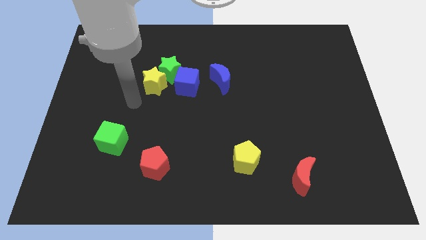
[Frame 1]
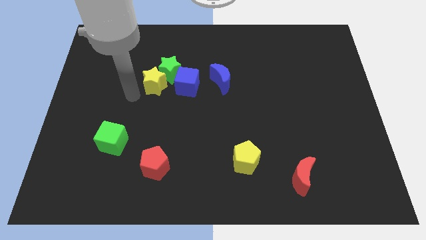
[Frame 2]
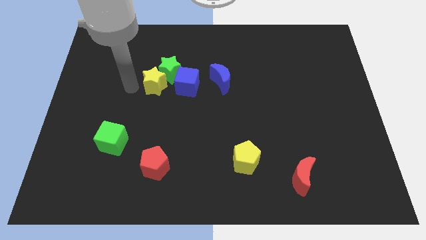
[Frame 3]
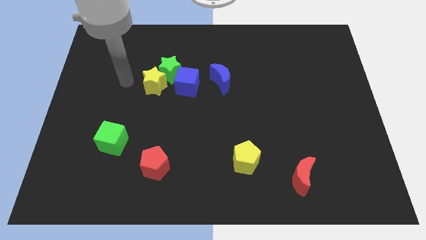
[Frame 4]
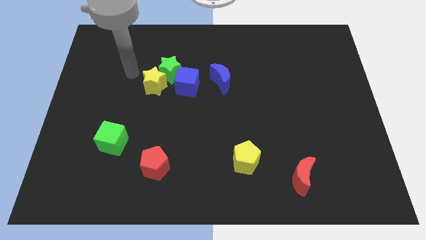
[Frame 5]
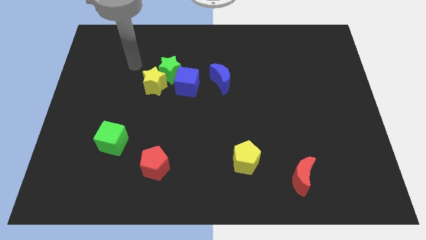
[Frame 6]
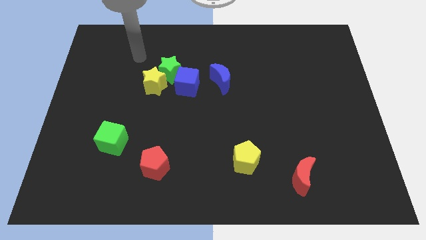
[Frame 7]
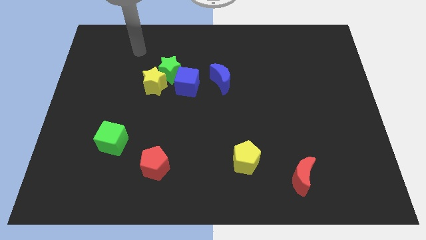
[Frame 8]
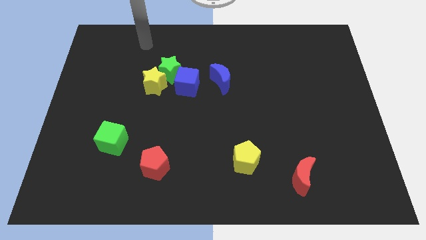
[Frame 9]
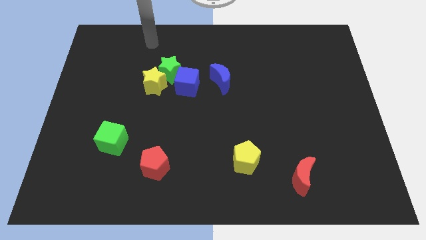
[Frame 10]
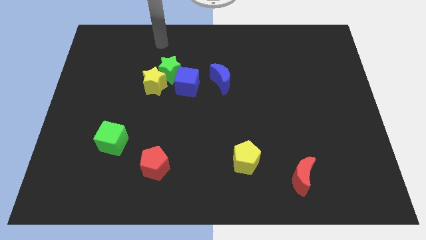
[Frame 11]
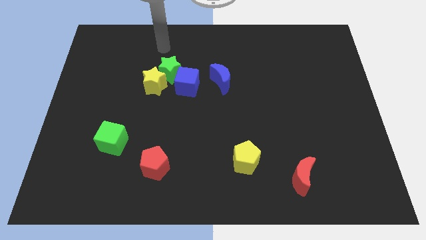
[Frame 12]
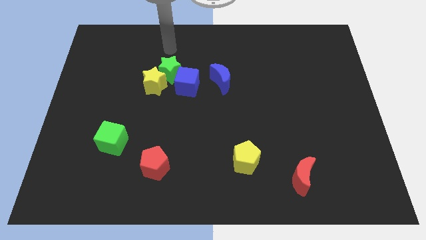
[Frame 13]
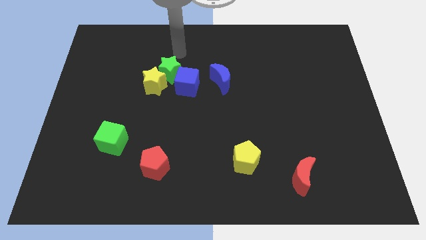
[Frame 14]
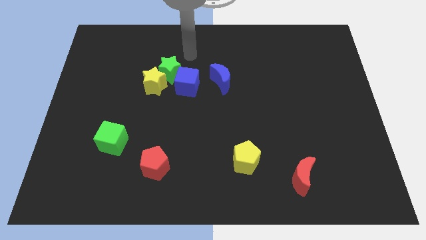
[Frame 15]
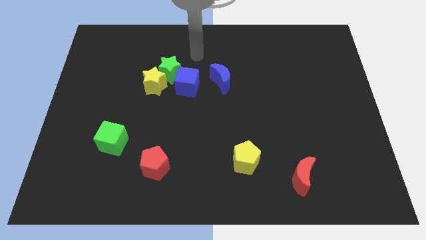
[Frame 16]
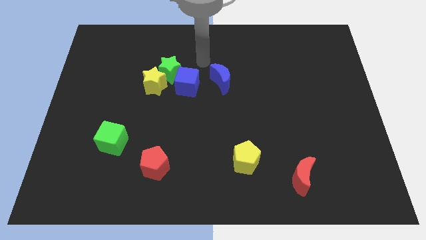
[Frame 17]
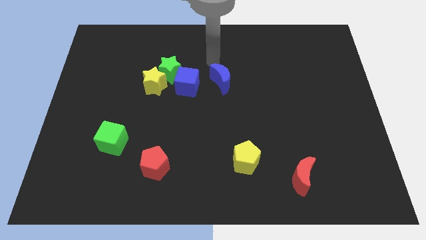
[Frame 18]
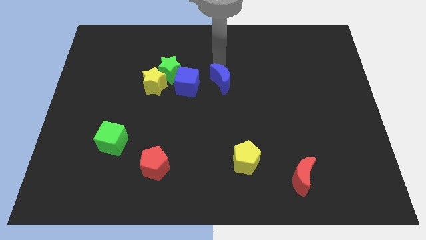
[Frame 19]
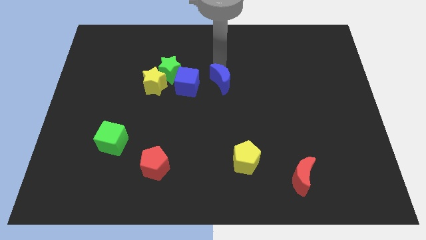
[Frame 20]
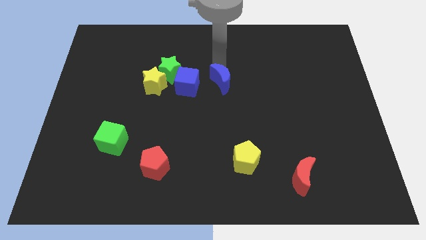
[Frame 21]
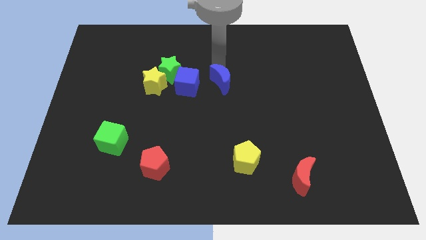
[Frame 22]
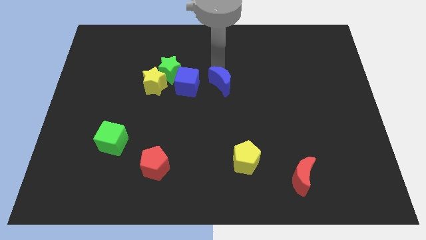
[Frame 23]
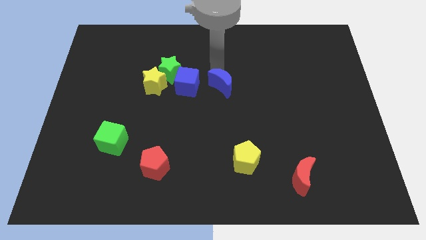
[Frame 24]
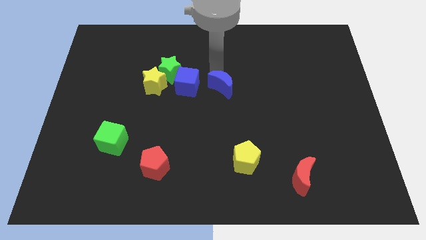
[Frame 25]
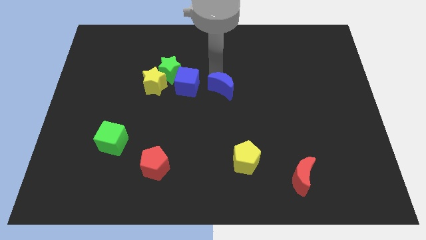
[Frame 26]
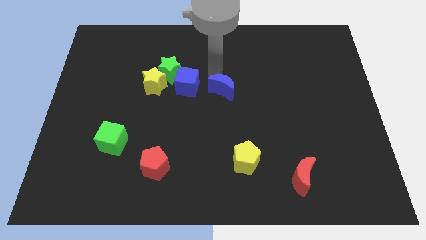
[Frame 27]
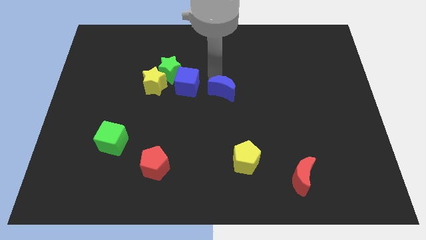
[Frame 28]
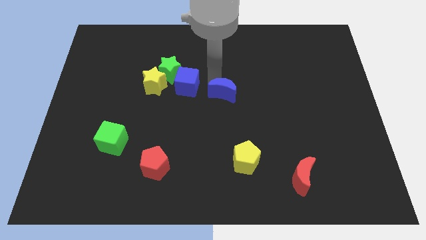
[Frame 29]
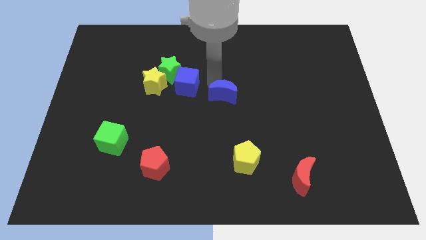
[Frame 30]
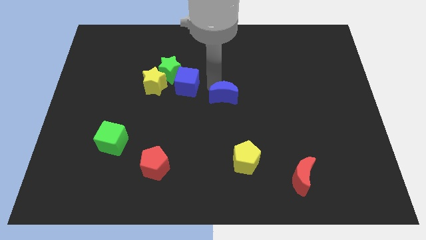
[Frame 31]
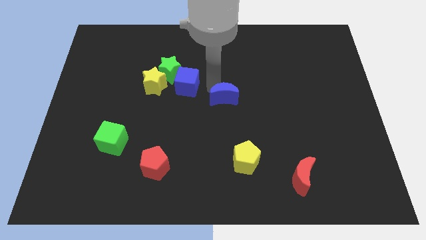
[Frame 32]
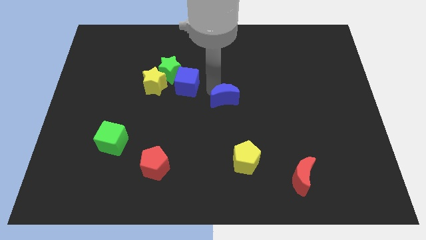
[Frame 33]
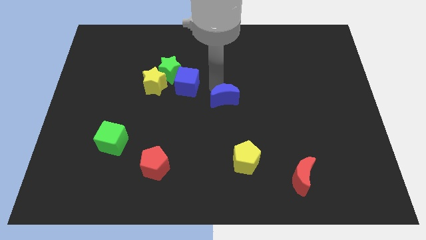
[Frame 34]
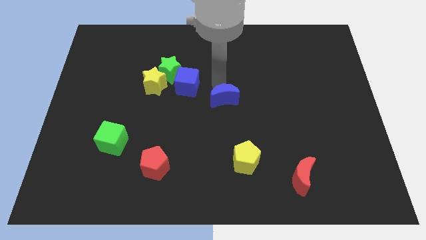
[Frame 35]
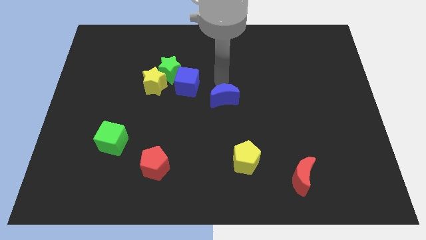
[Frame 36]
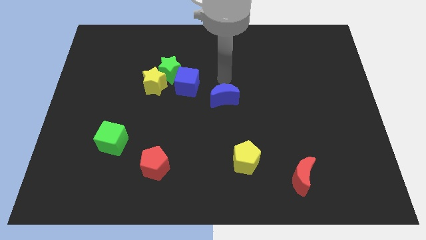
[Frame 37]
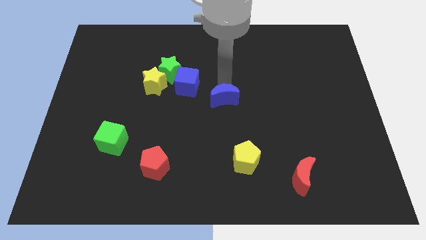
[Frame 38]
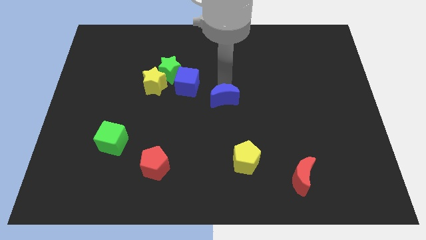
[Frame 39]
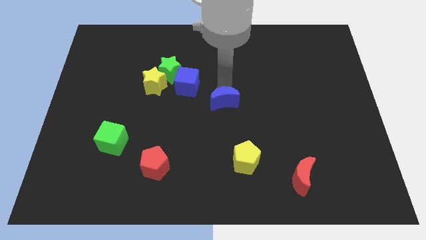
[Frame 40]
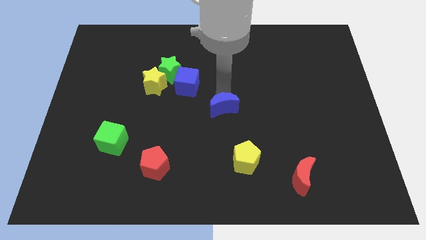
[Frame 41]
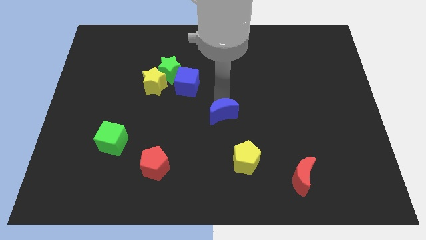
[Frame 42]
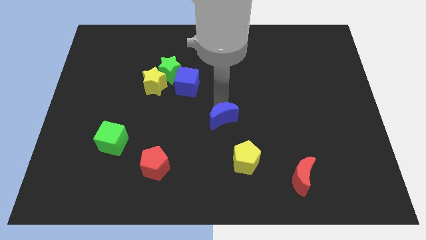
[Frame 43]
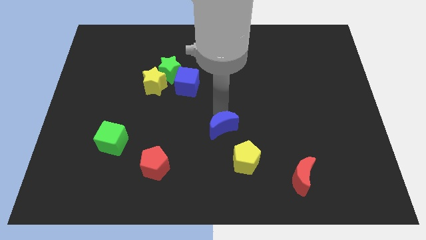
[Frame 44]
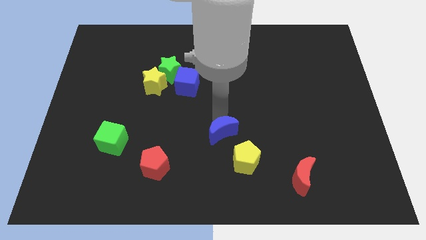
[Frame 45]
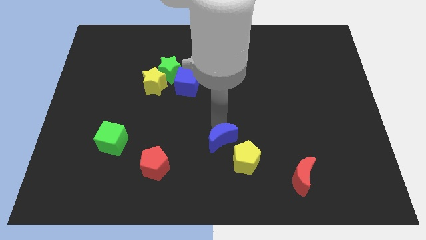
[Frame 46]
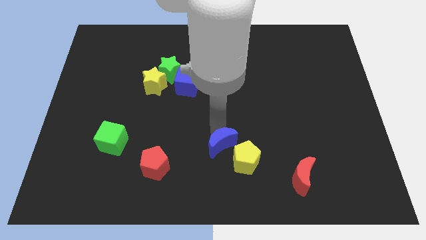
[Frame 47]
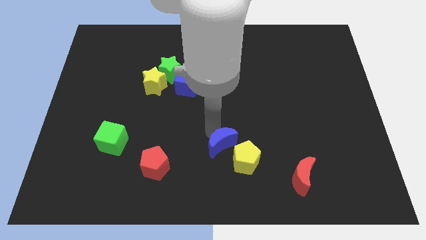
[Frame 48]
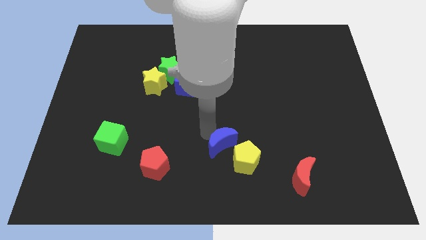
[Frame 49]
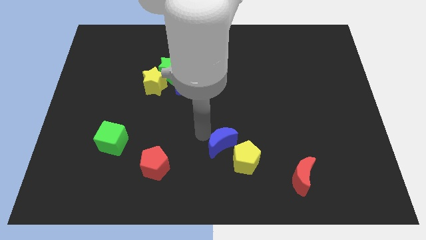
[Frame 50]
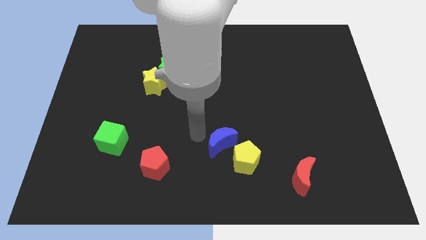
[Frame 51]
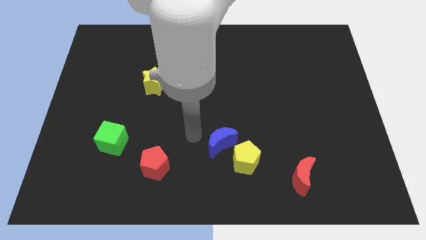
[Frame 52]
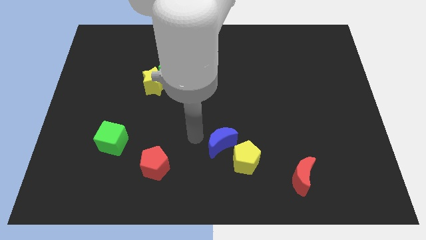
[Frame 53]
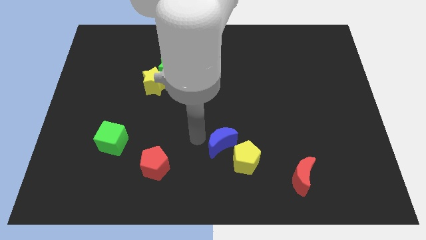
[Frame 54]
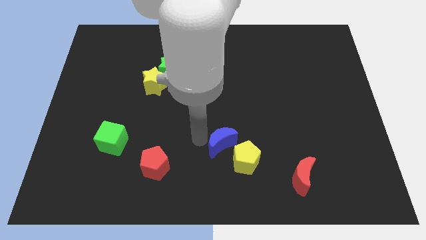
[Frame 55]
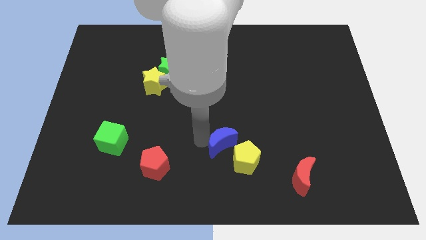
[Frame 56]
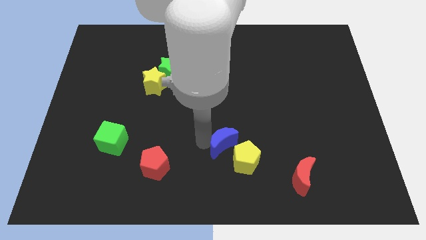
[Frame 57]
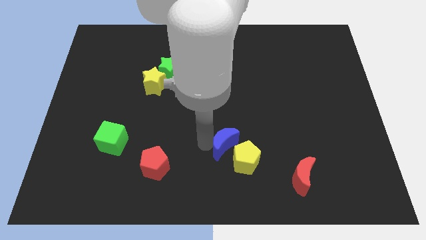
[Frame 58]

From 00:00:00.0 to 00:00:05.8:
move the blue moon towards the yellow pentagon
